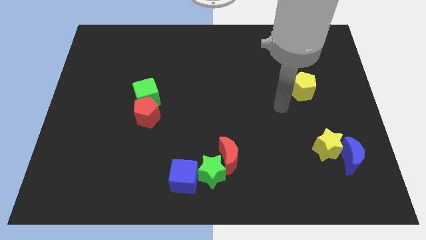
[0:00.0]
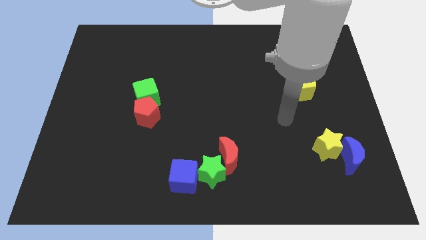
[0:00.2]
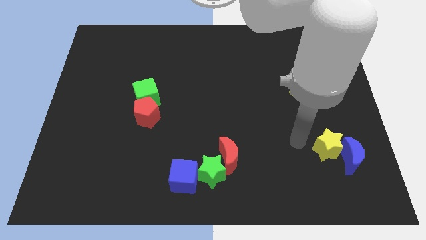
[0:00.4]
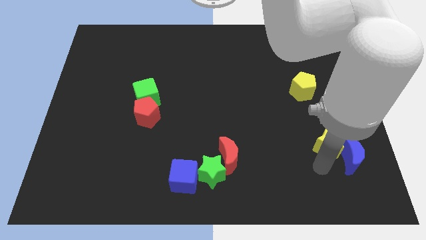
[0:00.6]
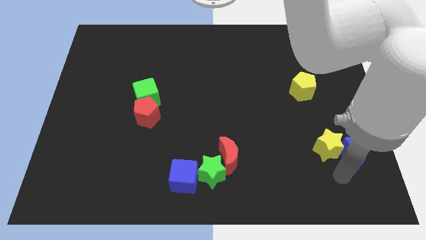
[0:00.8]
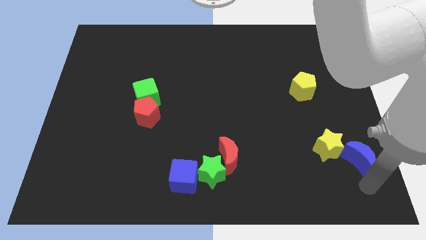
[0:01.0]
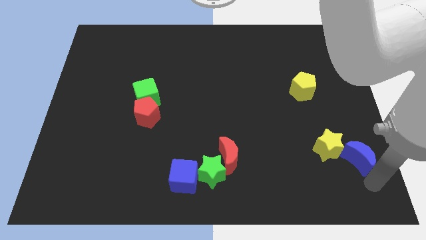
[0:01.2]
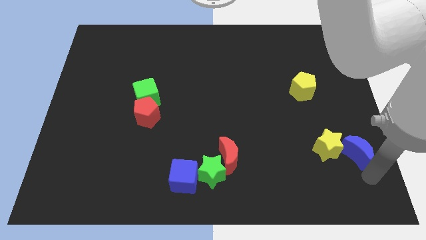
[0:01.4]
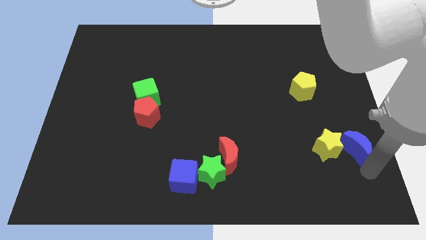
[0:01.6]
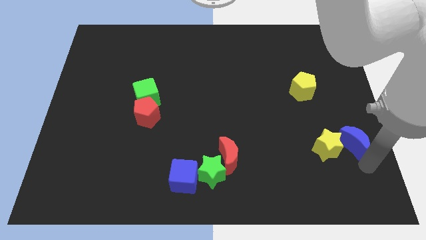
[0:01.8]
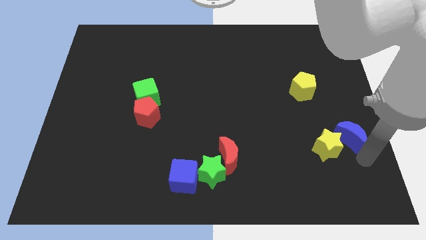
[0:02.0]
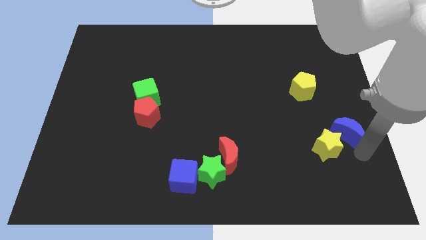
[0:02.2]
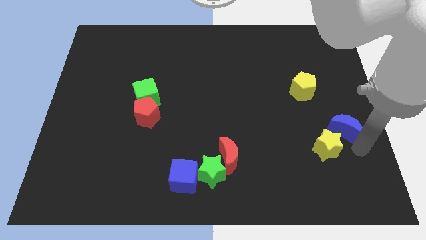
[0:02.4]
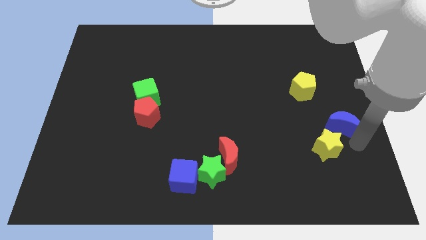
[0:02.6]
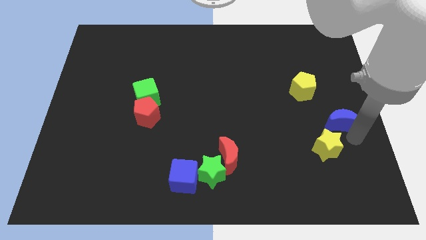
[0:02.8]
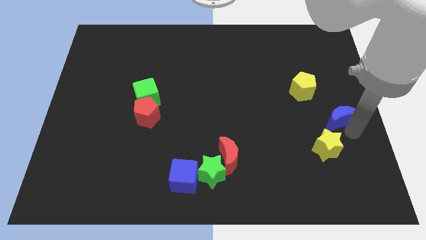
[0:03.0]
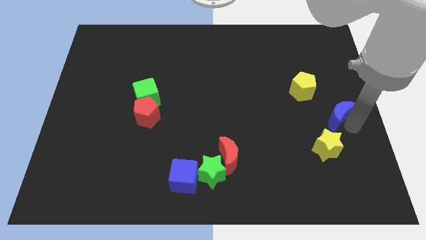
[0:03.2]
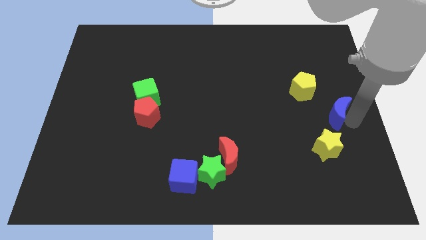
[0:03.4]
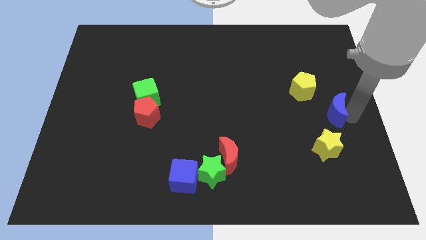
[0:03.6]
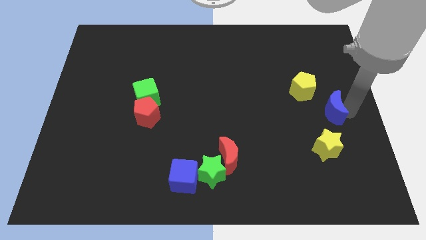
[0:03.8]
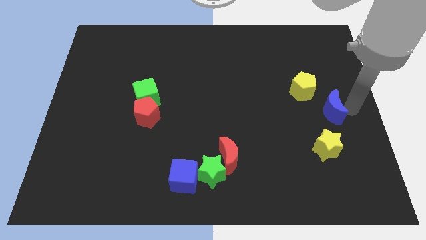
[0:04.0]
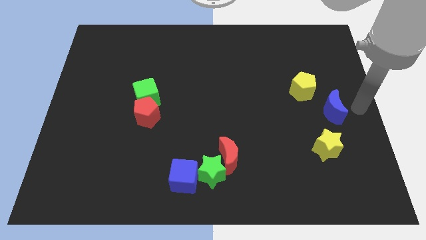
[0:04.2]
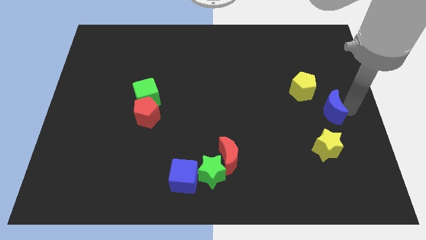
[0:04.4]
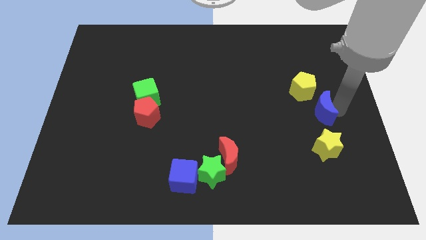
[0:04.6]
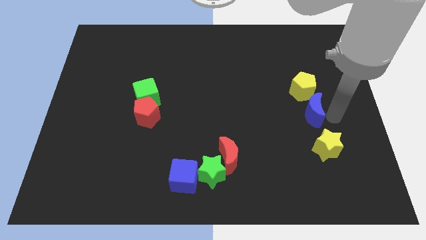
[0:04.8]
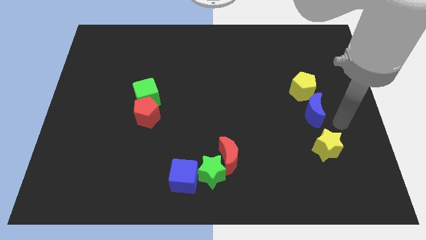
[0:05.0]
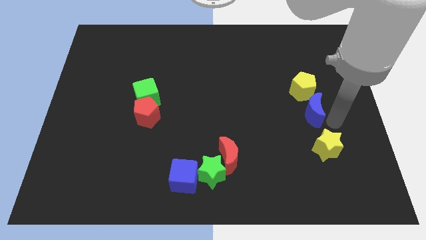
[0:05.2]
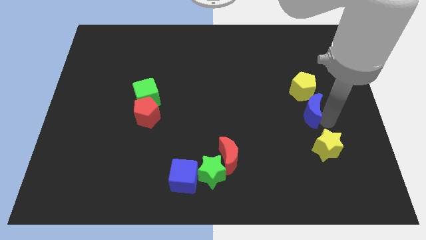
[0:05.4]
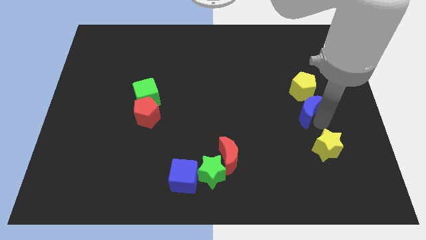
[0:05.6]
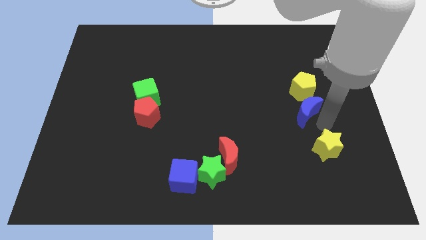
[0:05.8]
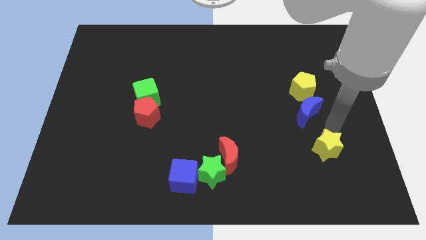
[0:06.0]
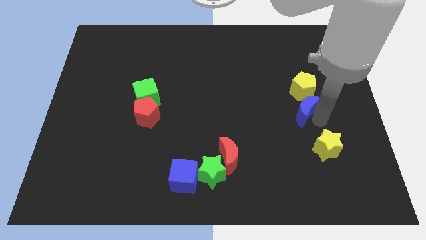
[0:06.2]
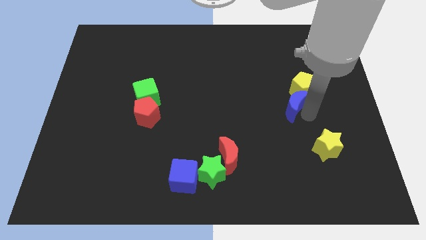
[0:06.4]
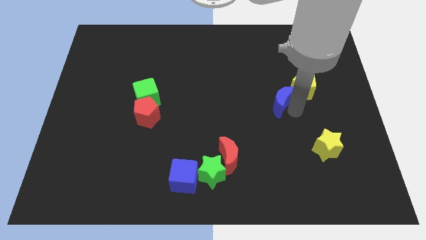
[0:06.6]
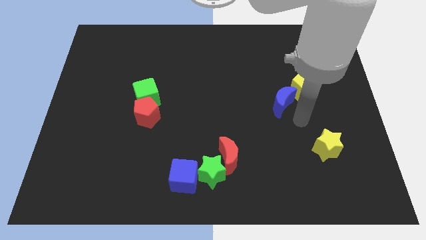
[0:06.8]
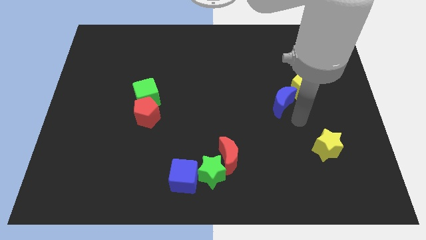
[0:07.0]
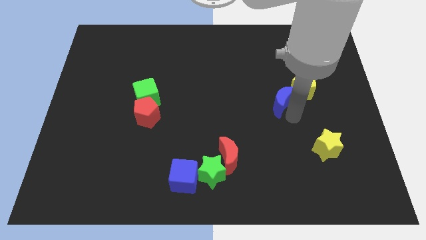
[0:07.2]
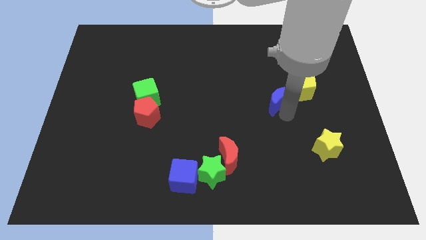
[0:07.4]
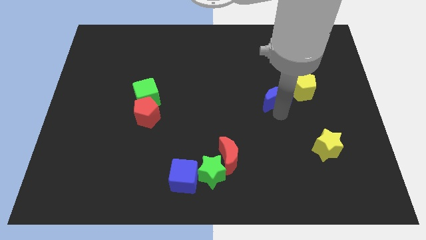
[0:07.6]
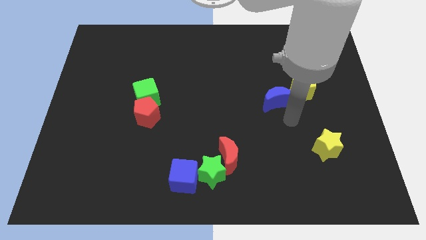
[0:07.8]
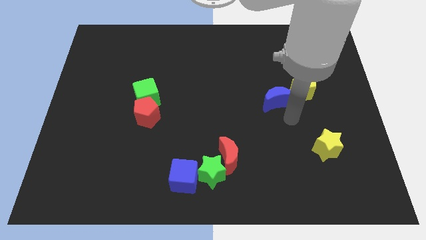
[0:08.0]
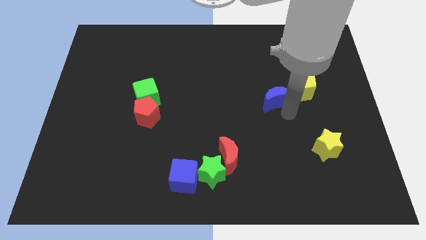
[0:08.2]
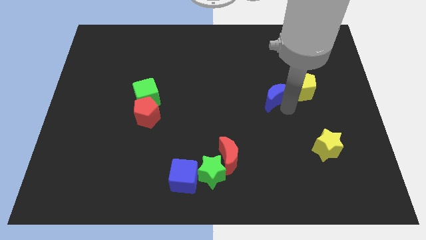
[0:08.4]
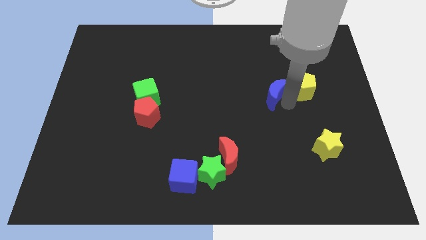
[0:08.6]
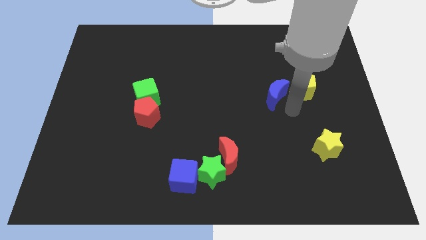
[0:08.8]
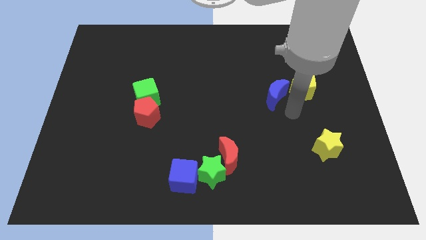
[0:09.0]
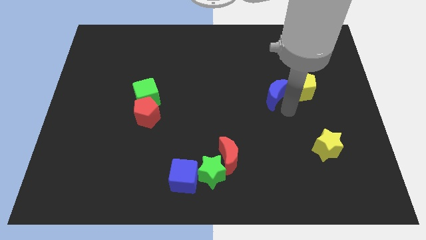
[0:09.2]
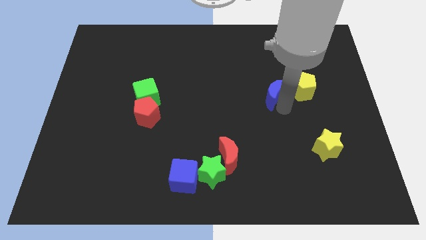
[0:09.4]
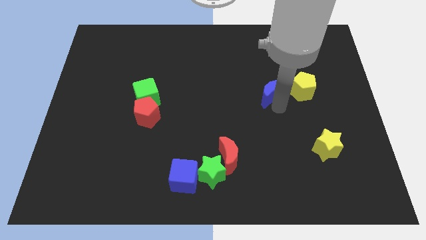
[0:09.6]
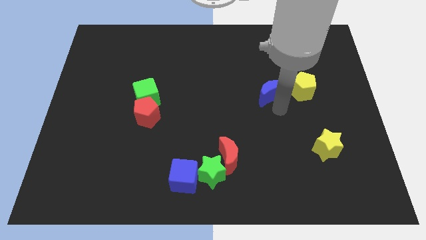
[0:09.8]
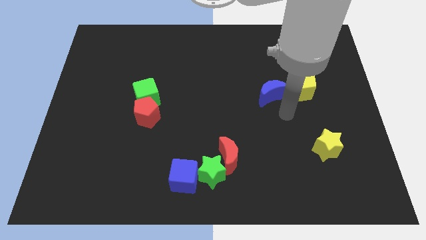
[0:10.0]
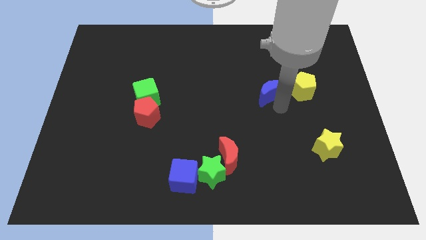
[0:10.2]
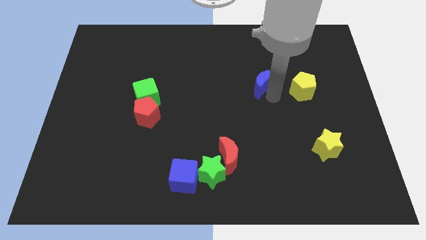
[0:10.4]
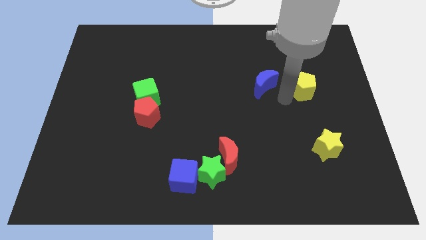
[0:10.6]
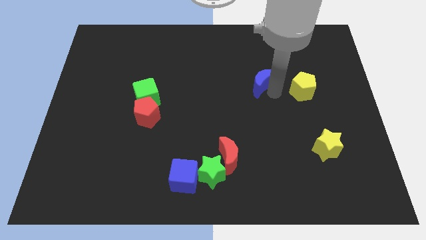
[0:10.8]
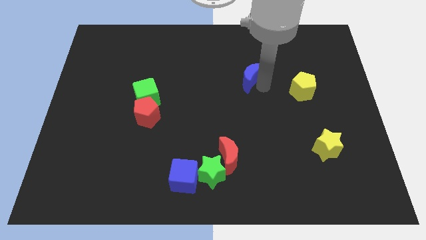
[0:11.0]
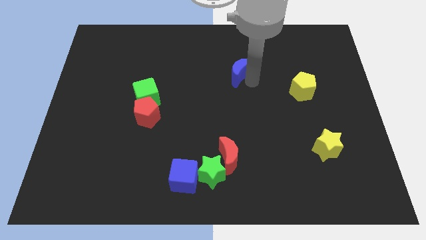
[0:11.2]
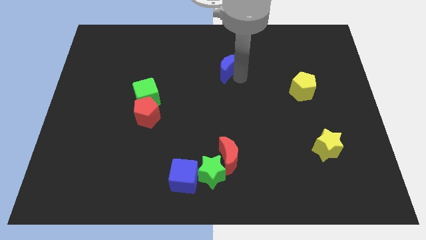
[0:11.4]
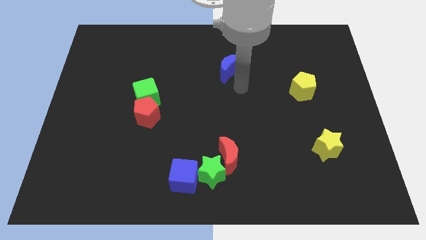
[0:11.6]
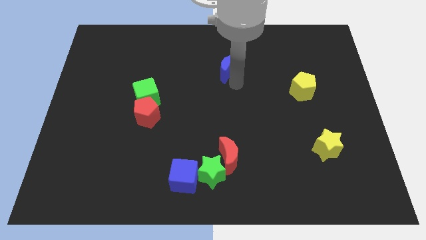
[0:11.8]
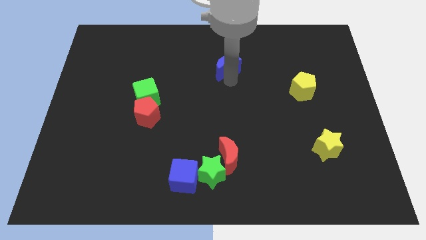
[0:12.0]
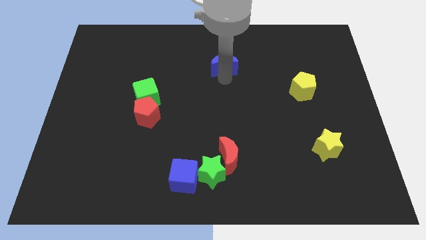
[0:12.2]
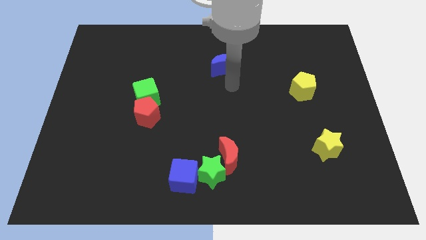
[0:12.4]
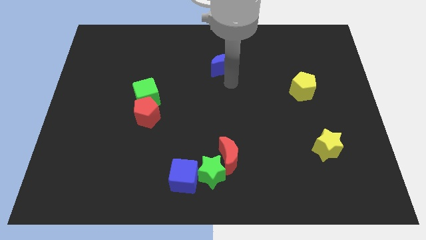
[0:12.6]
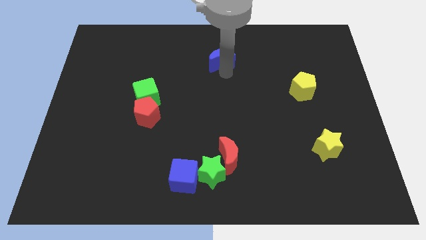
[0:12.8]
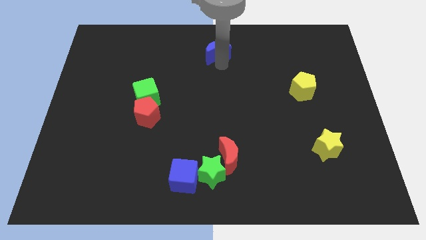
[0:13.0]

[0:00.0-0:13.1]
put the blue moon to the towards your base
